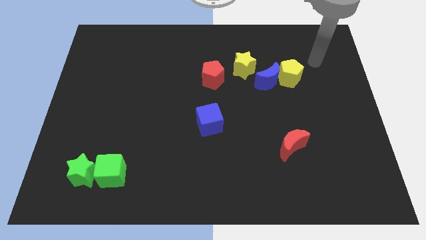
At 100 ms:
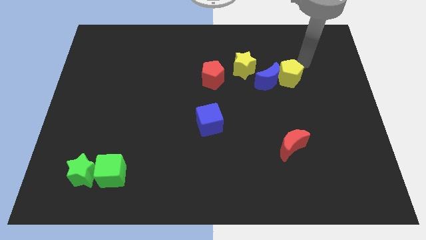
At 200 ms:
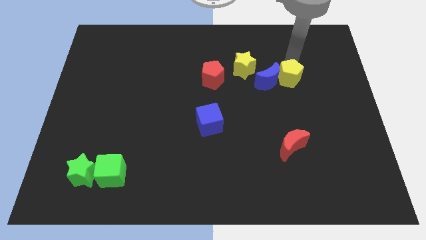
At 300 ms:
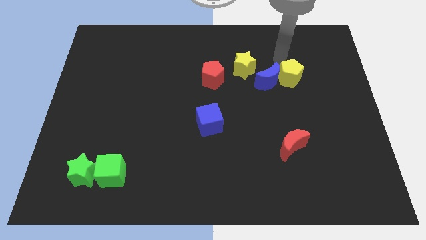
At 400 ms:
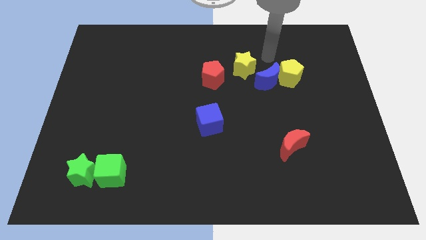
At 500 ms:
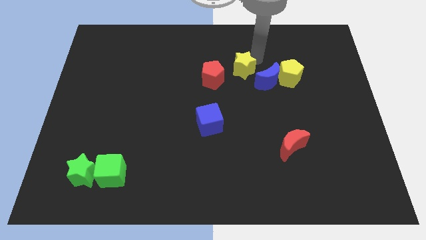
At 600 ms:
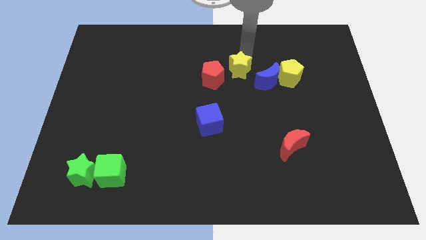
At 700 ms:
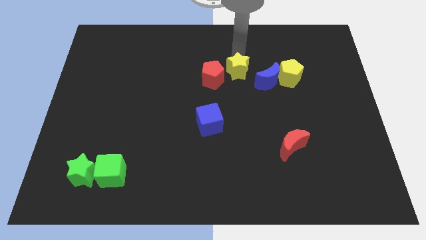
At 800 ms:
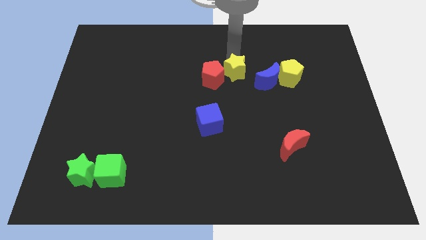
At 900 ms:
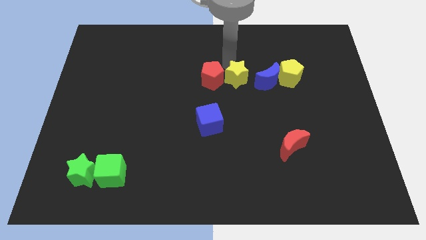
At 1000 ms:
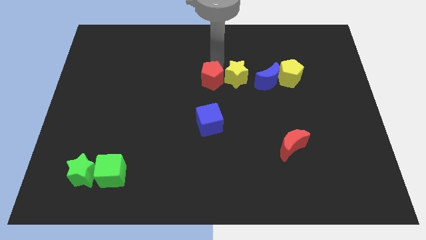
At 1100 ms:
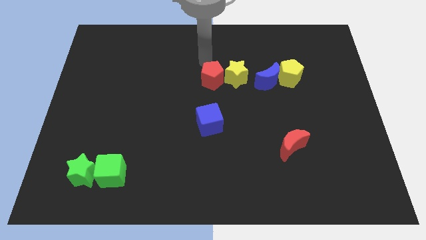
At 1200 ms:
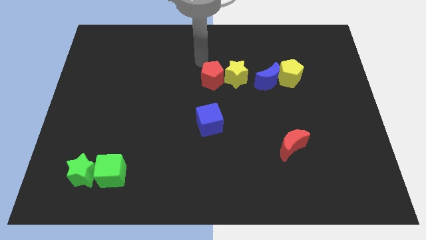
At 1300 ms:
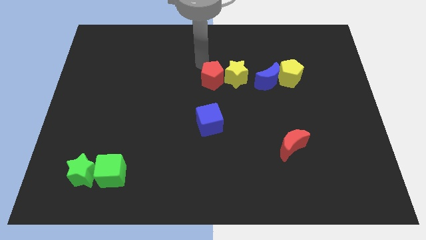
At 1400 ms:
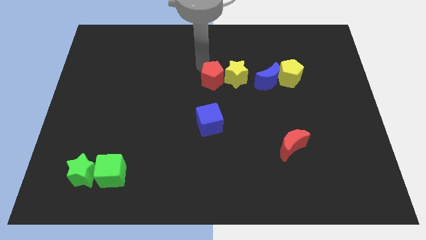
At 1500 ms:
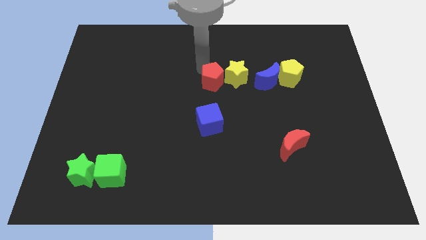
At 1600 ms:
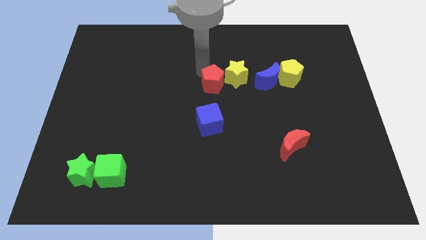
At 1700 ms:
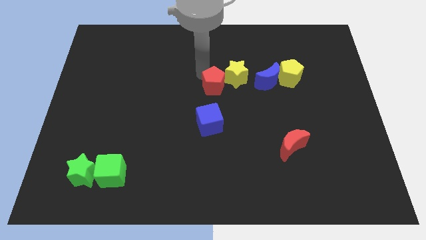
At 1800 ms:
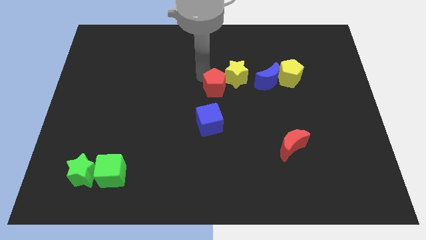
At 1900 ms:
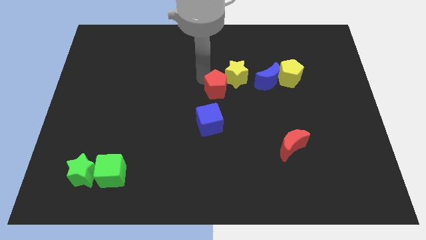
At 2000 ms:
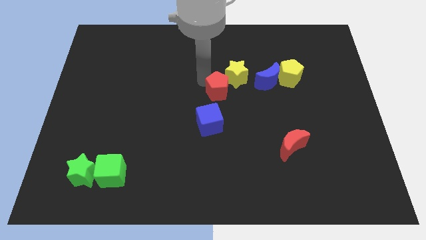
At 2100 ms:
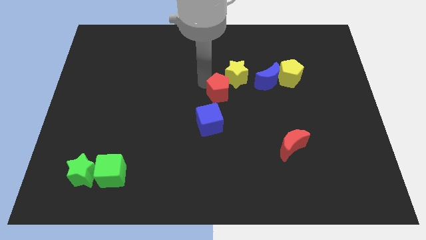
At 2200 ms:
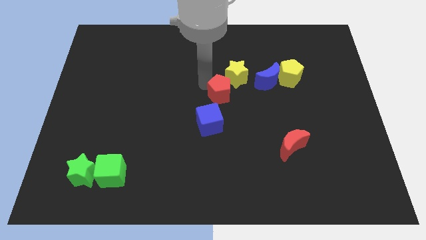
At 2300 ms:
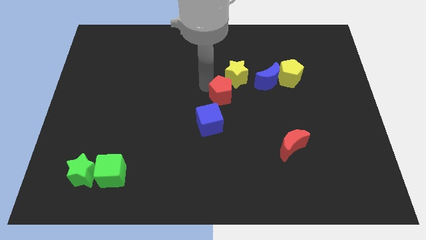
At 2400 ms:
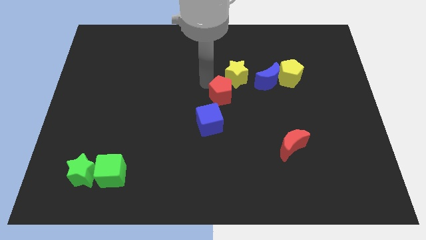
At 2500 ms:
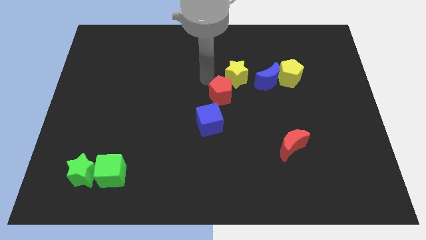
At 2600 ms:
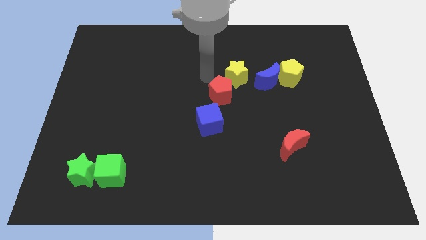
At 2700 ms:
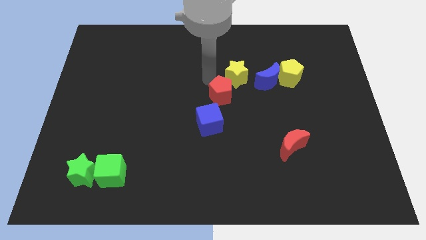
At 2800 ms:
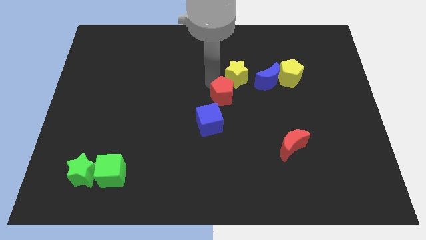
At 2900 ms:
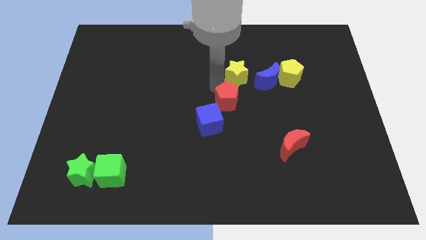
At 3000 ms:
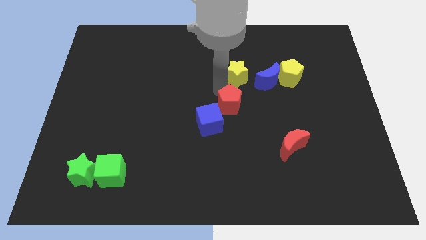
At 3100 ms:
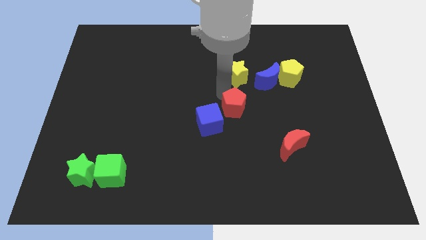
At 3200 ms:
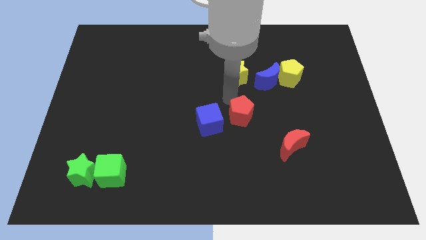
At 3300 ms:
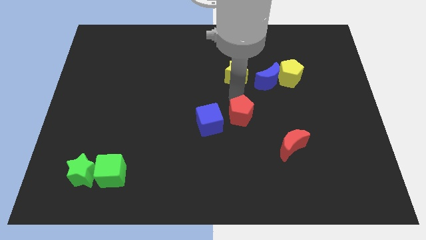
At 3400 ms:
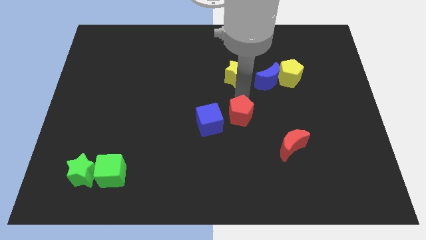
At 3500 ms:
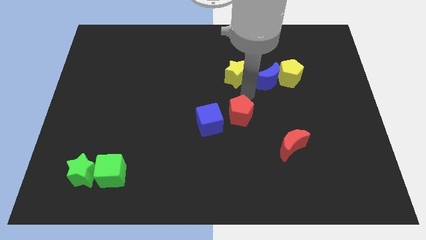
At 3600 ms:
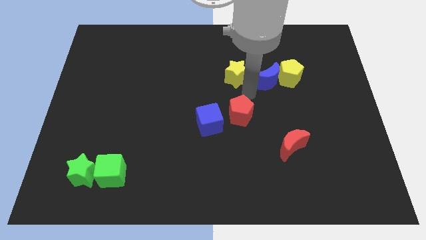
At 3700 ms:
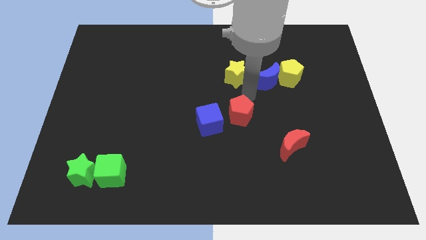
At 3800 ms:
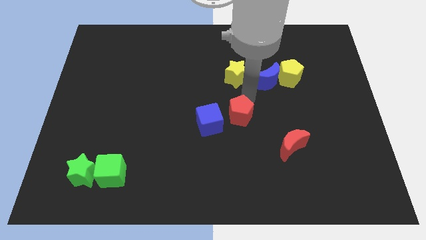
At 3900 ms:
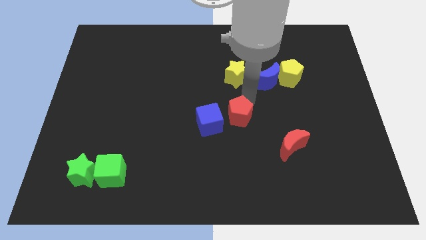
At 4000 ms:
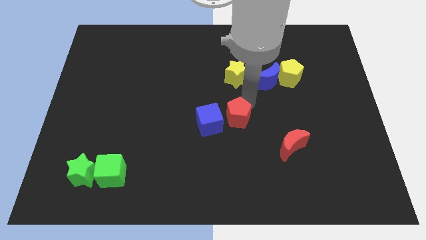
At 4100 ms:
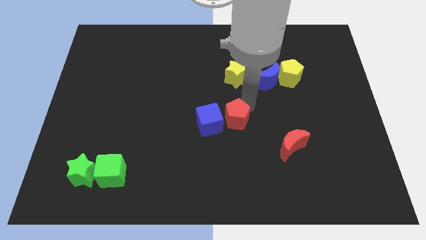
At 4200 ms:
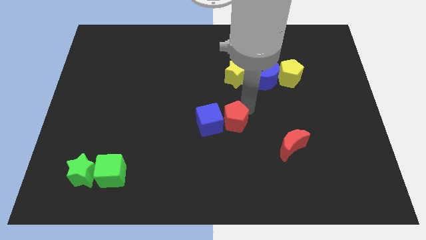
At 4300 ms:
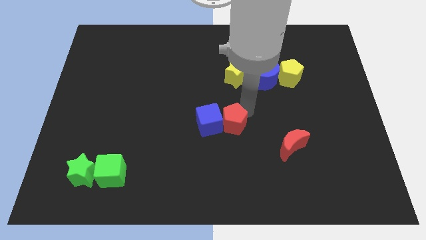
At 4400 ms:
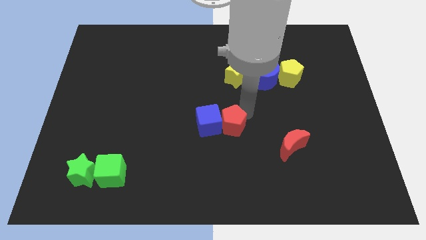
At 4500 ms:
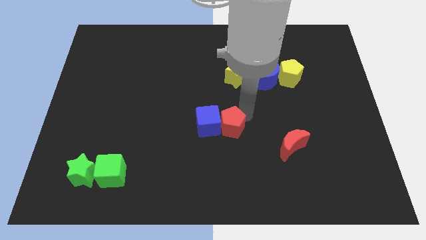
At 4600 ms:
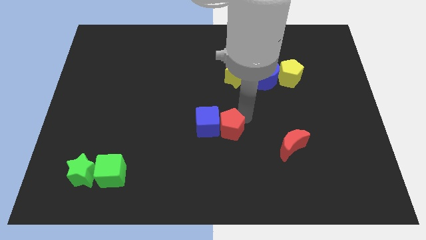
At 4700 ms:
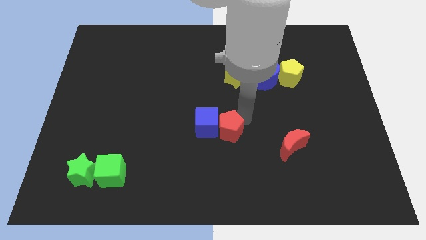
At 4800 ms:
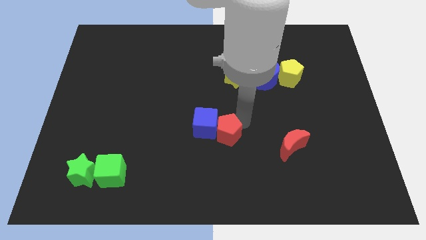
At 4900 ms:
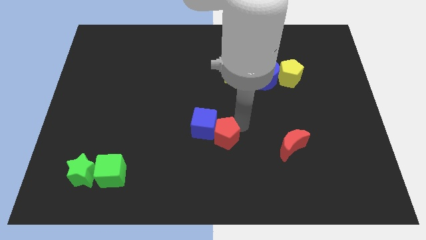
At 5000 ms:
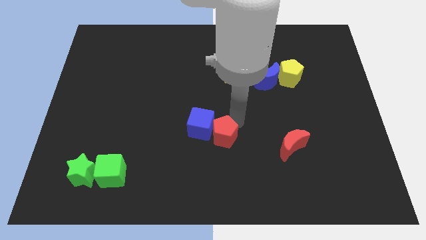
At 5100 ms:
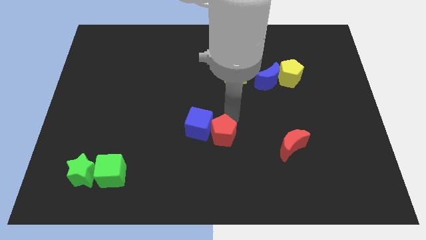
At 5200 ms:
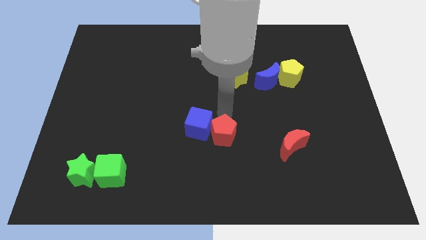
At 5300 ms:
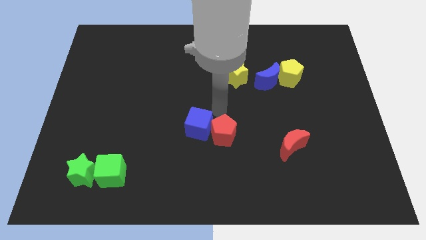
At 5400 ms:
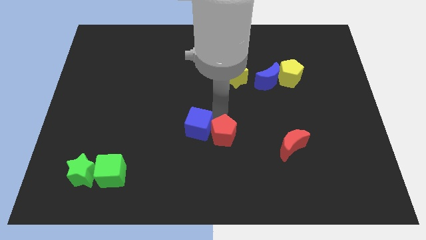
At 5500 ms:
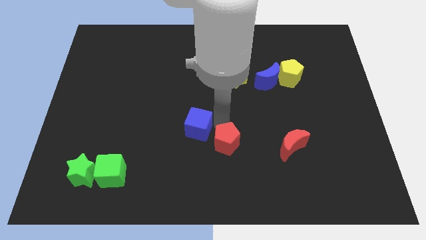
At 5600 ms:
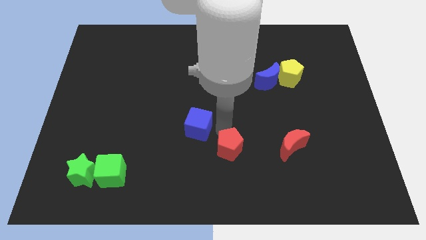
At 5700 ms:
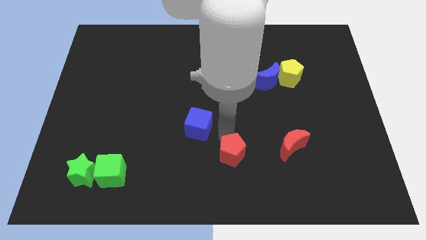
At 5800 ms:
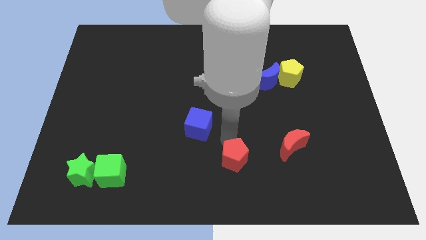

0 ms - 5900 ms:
slide the red pentagon to the bottom side
